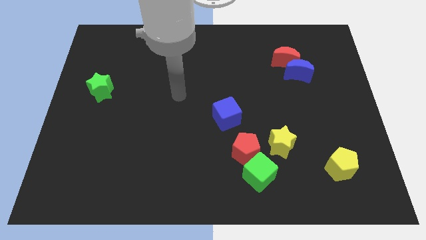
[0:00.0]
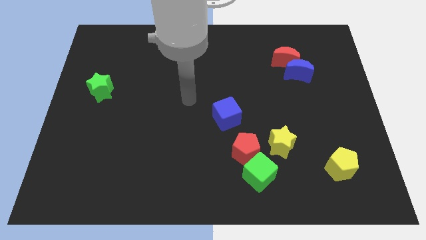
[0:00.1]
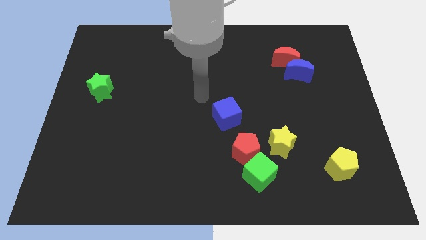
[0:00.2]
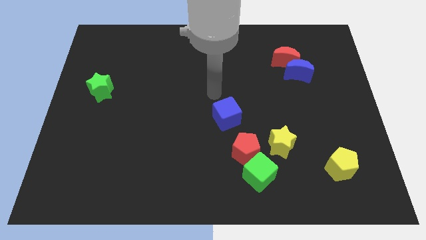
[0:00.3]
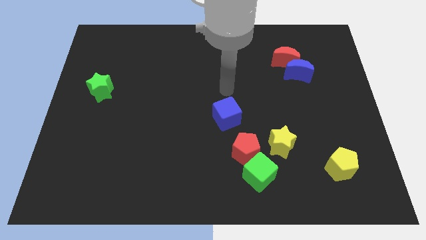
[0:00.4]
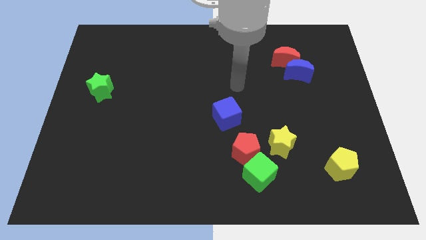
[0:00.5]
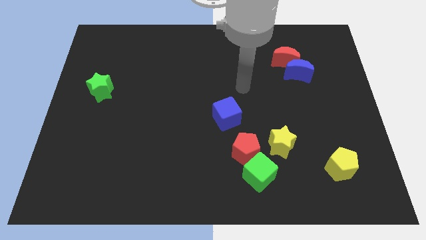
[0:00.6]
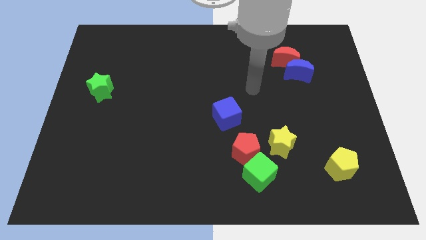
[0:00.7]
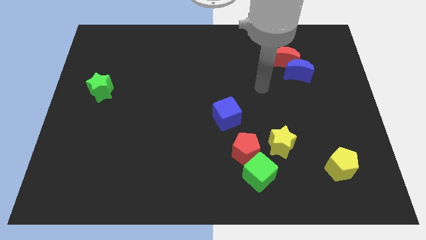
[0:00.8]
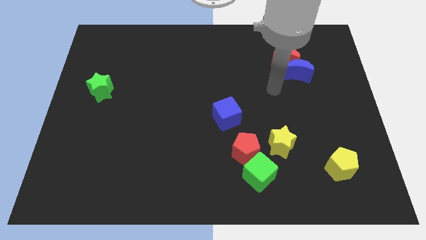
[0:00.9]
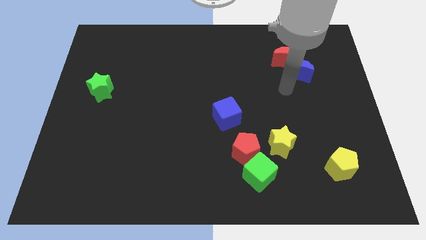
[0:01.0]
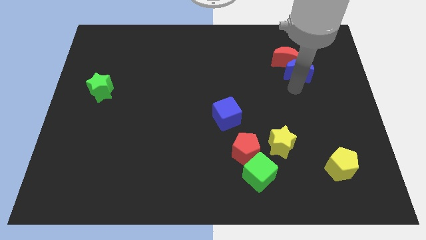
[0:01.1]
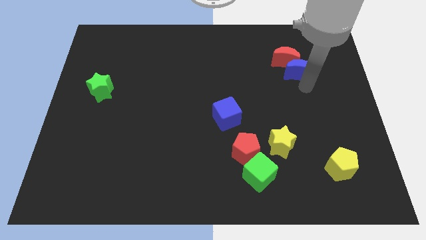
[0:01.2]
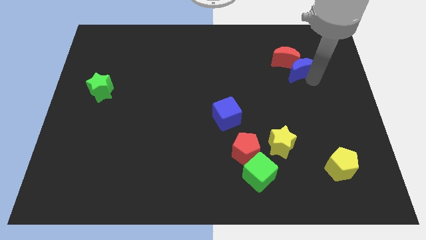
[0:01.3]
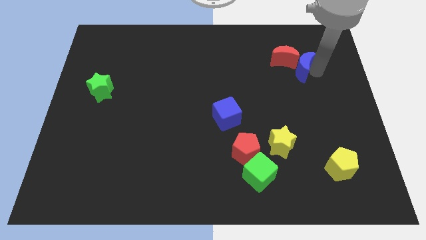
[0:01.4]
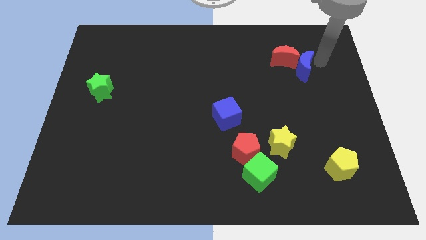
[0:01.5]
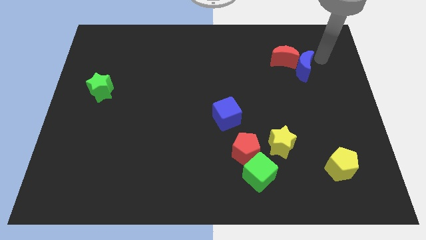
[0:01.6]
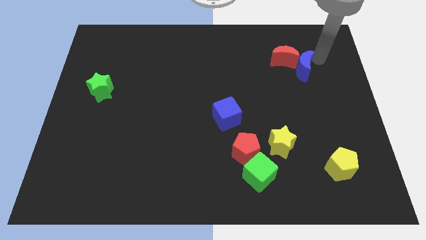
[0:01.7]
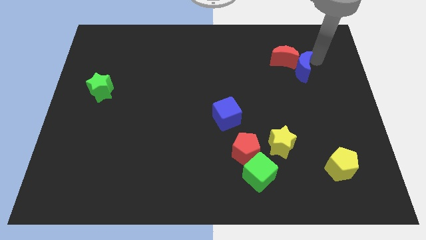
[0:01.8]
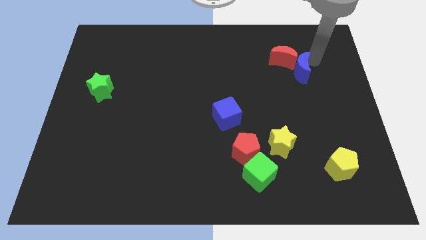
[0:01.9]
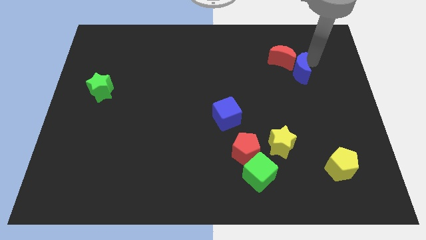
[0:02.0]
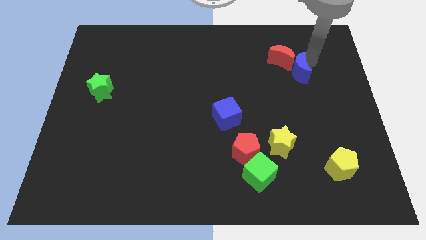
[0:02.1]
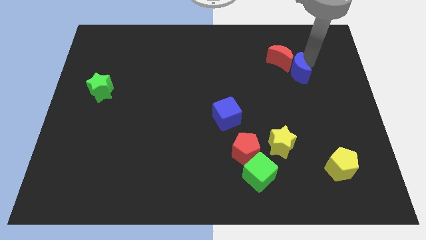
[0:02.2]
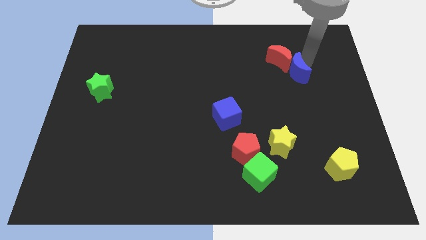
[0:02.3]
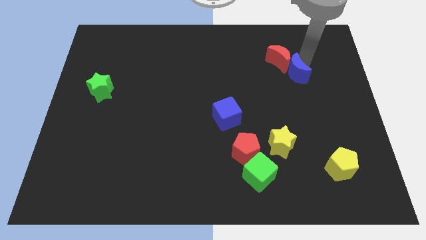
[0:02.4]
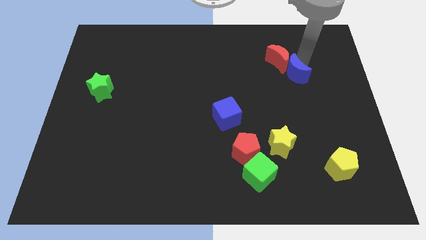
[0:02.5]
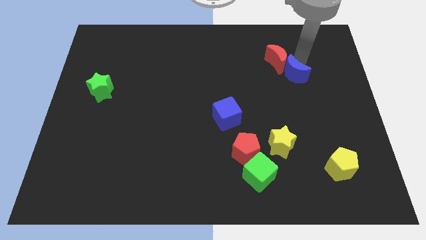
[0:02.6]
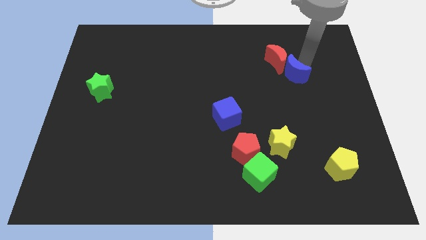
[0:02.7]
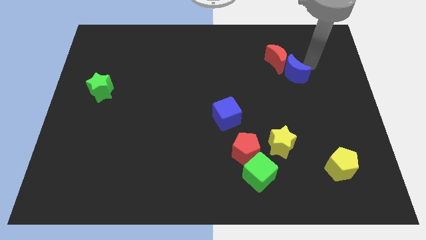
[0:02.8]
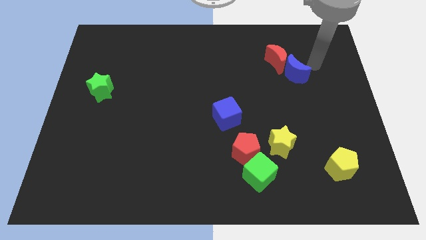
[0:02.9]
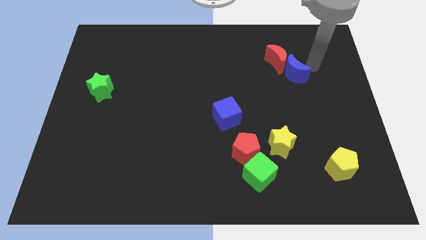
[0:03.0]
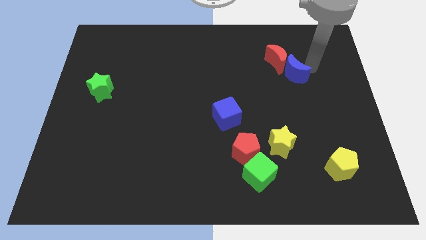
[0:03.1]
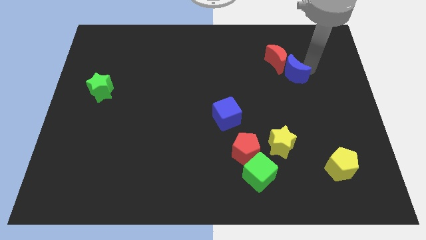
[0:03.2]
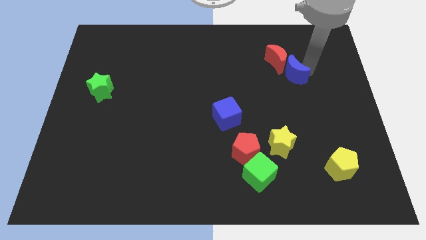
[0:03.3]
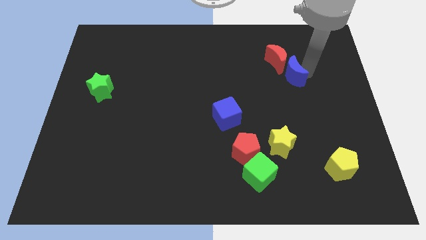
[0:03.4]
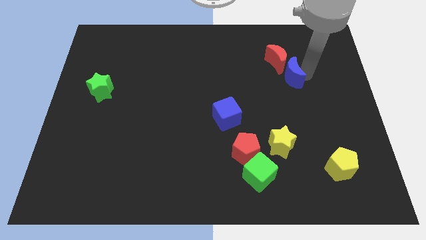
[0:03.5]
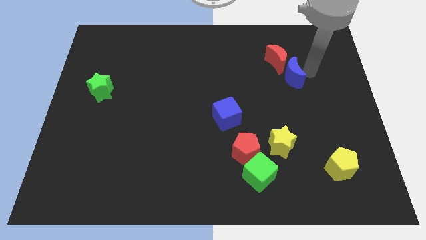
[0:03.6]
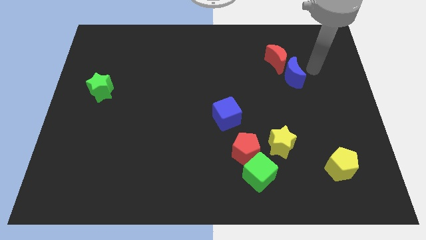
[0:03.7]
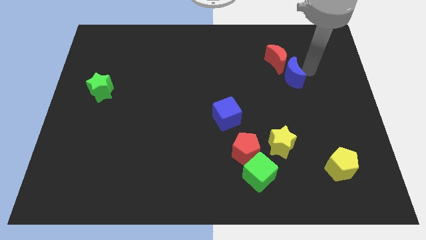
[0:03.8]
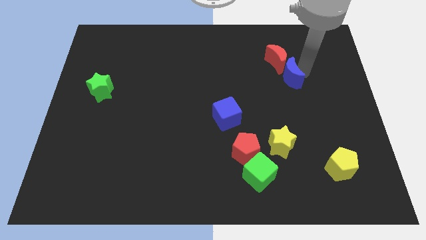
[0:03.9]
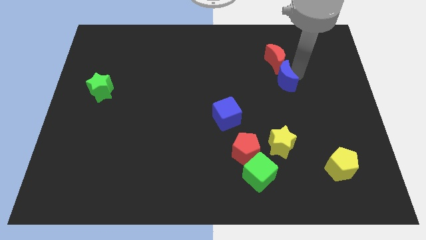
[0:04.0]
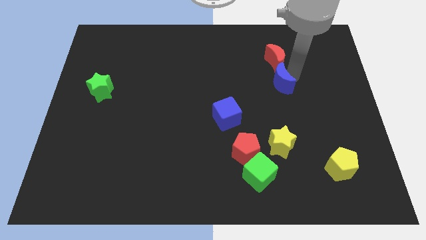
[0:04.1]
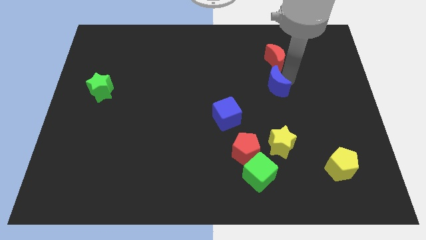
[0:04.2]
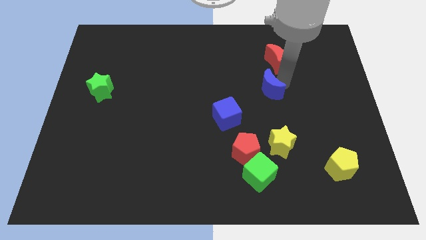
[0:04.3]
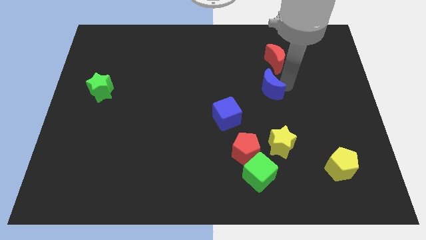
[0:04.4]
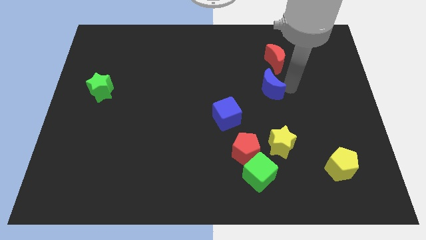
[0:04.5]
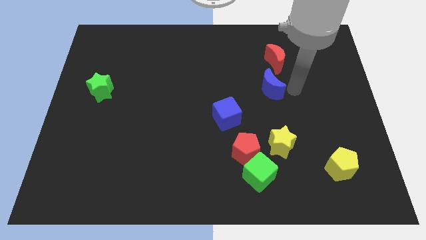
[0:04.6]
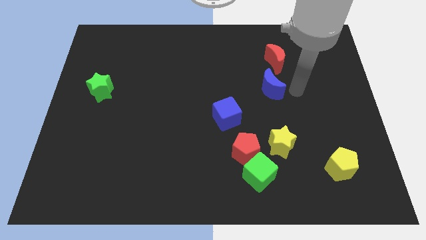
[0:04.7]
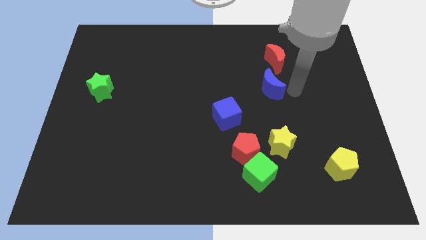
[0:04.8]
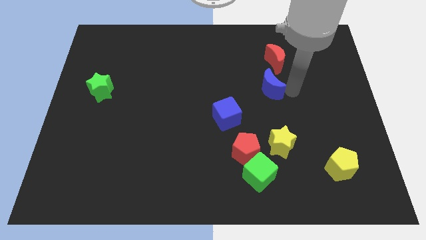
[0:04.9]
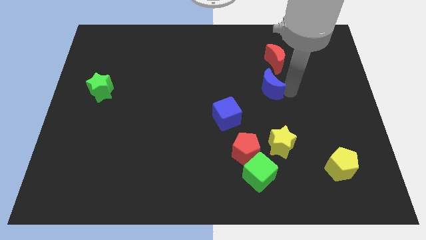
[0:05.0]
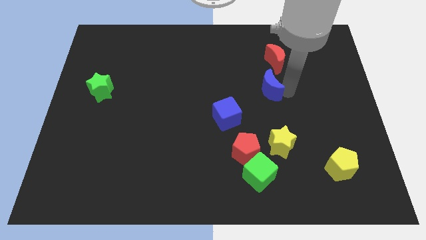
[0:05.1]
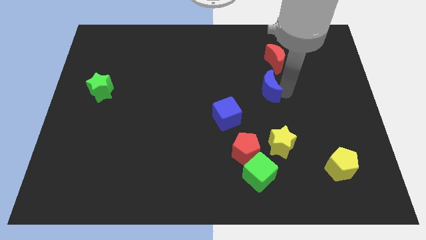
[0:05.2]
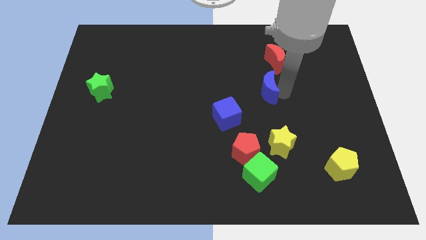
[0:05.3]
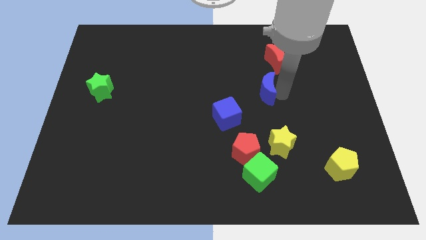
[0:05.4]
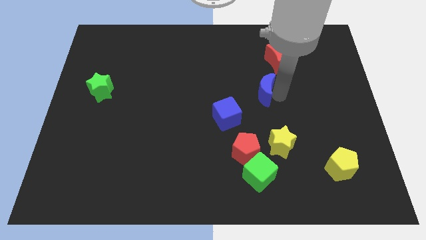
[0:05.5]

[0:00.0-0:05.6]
move the blue moon to the center of the board

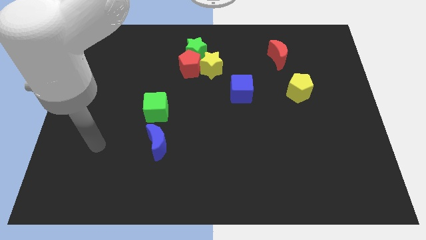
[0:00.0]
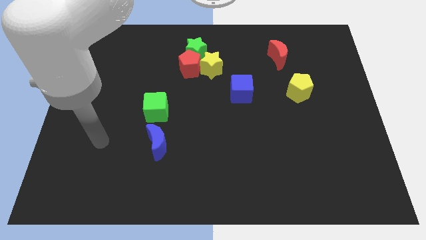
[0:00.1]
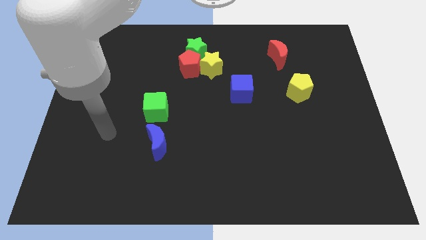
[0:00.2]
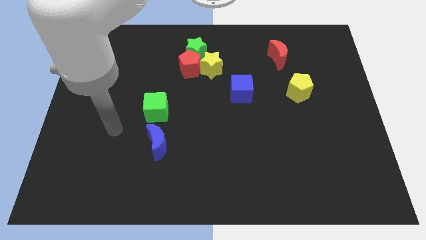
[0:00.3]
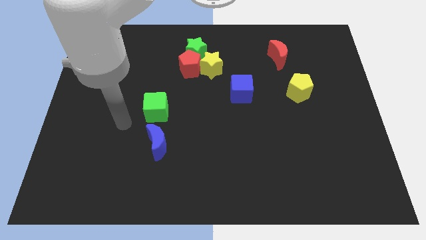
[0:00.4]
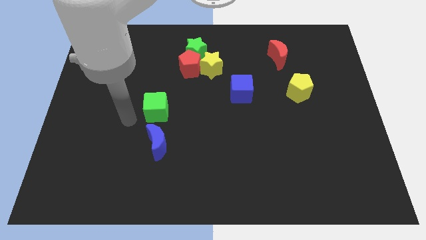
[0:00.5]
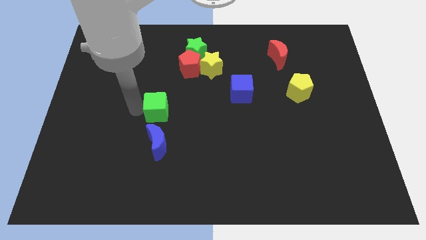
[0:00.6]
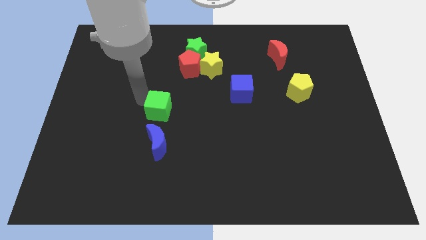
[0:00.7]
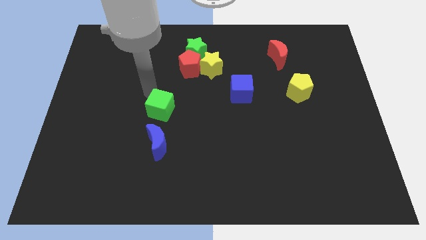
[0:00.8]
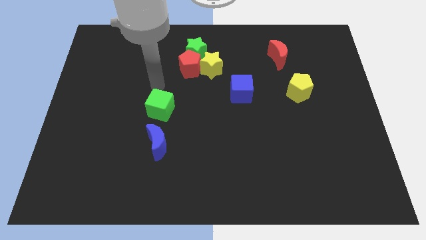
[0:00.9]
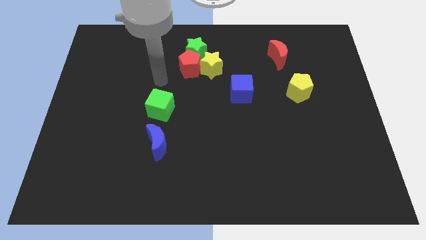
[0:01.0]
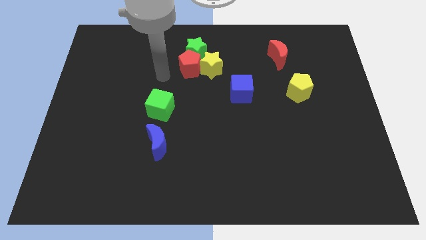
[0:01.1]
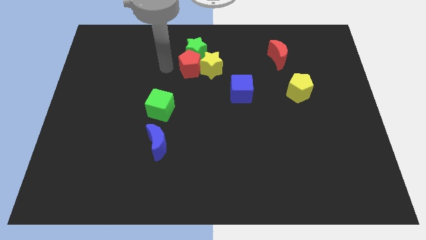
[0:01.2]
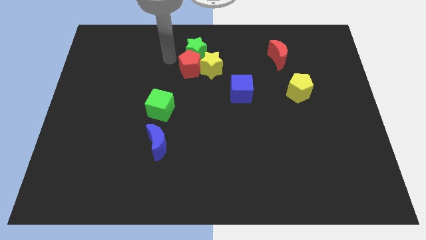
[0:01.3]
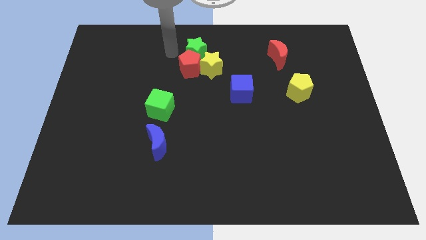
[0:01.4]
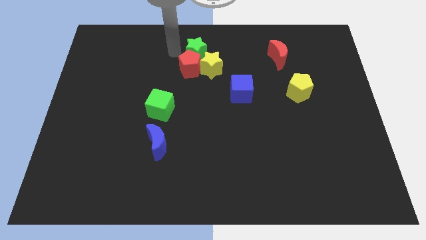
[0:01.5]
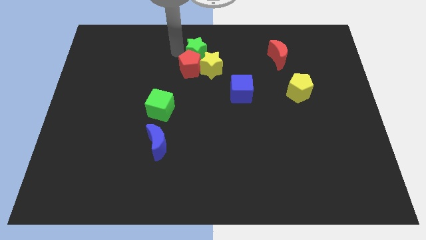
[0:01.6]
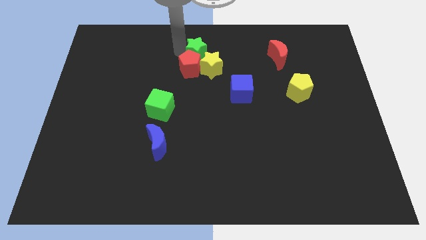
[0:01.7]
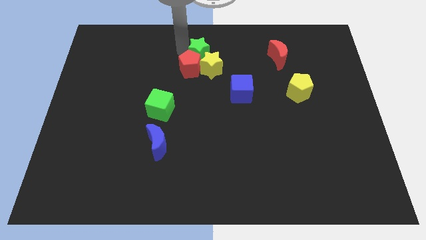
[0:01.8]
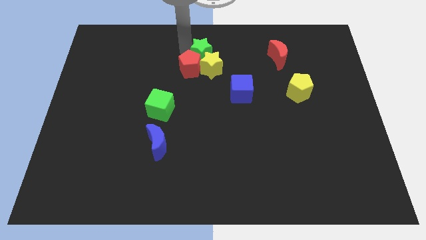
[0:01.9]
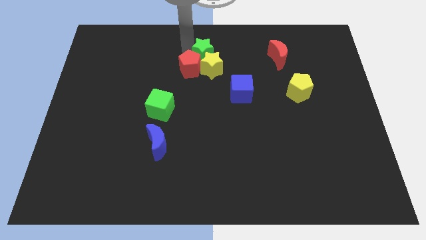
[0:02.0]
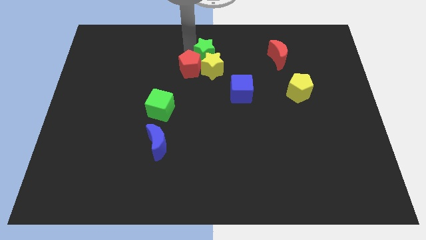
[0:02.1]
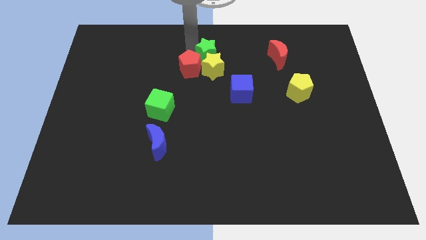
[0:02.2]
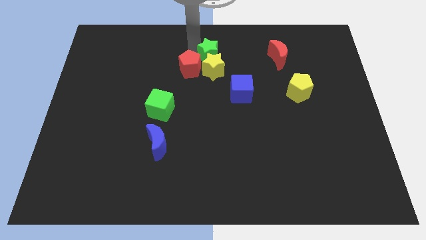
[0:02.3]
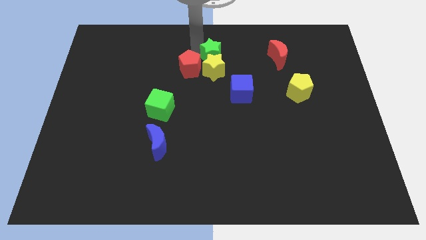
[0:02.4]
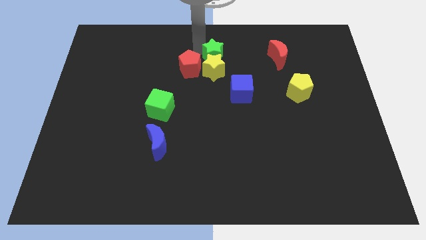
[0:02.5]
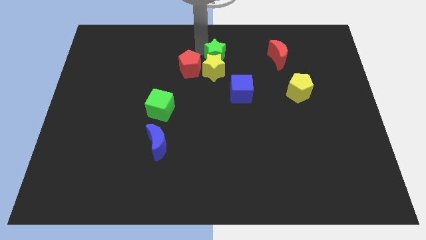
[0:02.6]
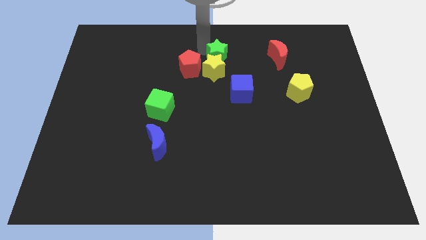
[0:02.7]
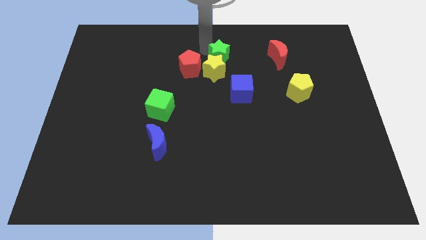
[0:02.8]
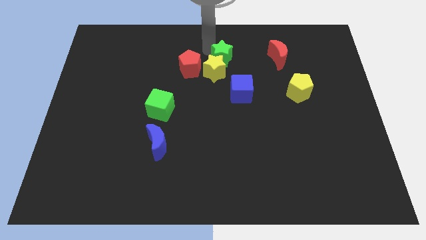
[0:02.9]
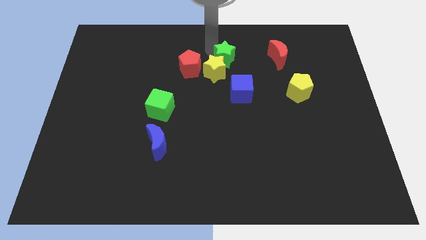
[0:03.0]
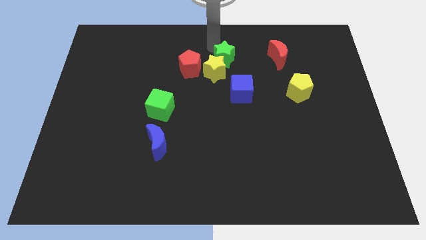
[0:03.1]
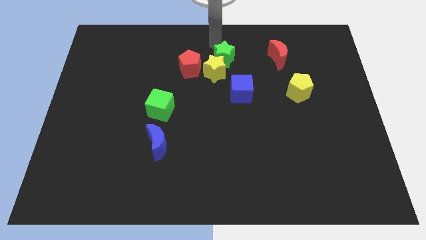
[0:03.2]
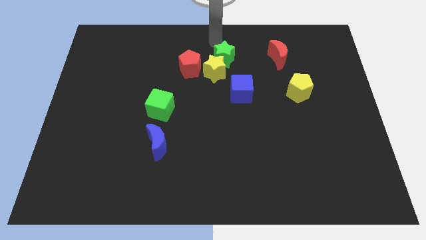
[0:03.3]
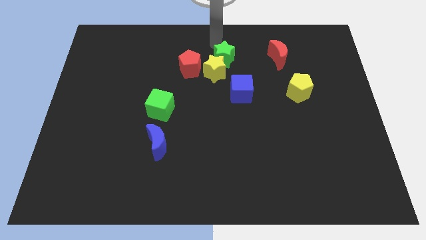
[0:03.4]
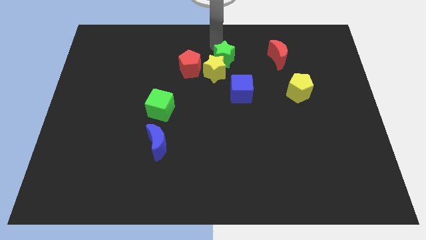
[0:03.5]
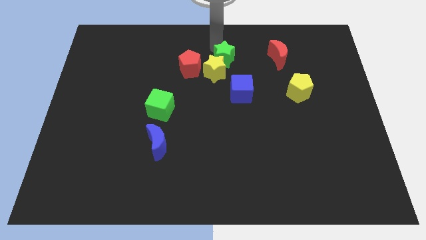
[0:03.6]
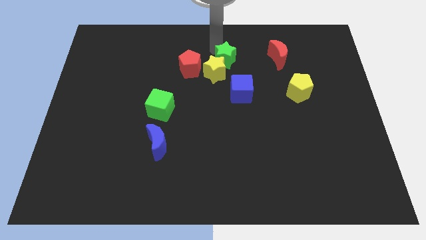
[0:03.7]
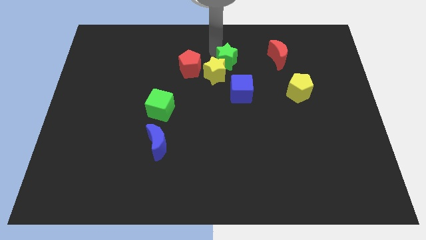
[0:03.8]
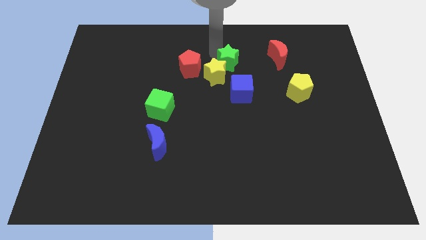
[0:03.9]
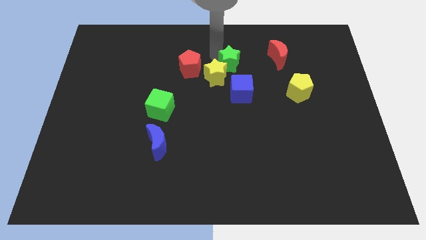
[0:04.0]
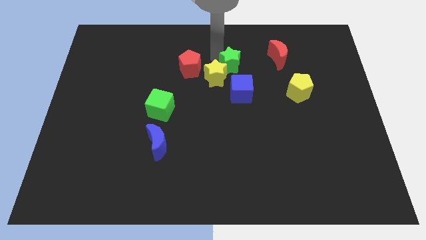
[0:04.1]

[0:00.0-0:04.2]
put the green star to the center
